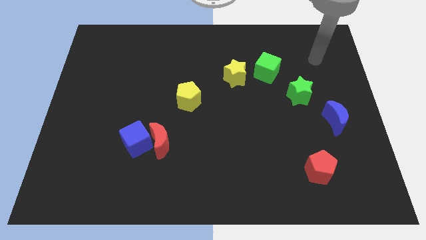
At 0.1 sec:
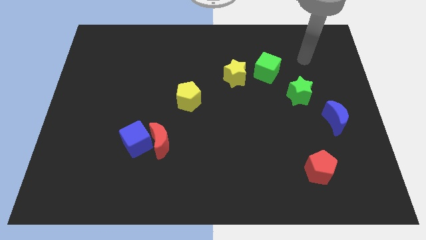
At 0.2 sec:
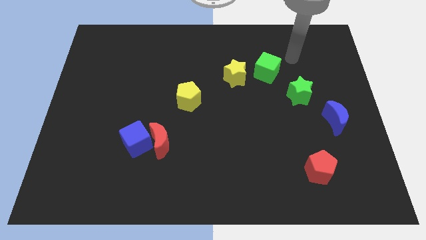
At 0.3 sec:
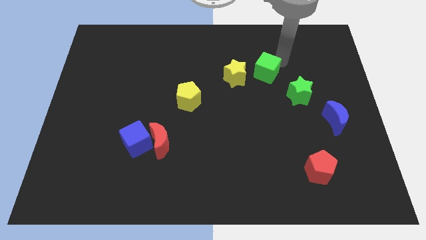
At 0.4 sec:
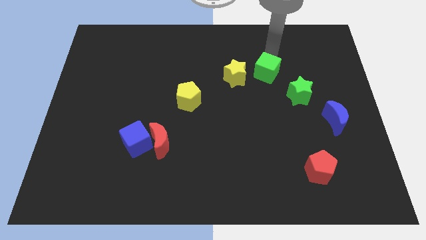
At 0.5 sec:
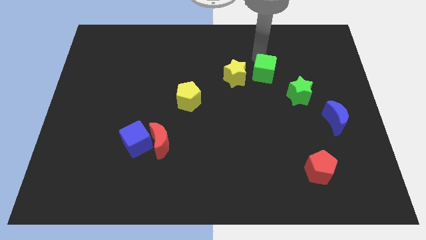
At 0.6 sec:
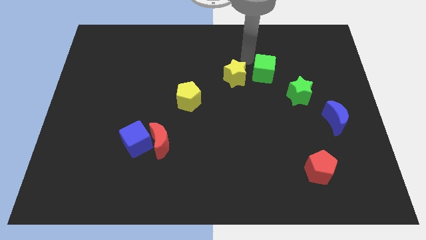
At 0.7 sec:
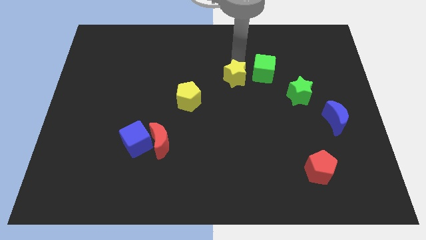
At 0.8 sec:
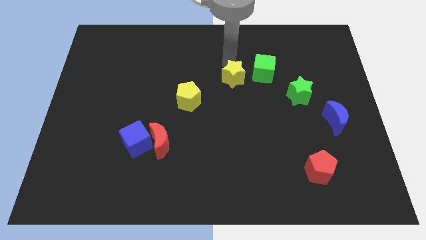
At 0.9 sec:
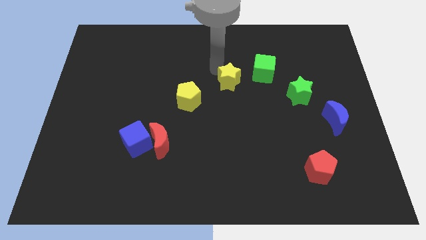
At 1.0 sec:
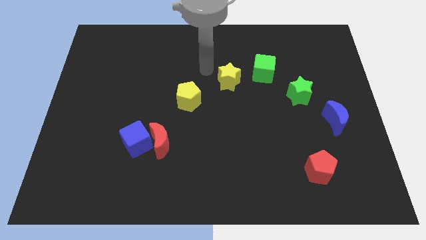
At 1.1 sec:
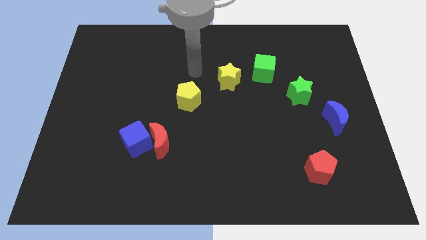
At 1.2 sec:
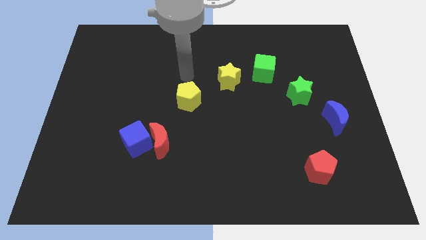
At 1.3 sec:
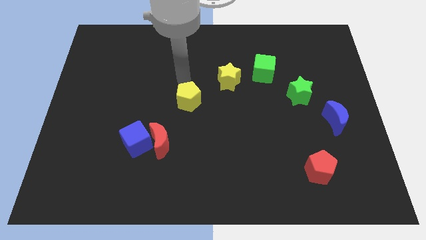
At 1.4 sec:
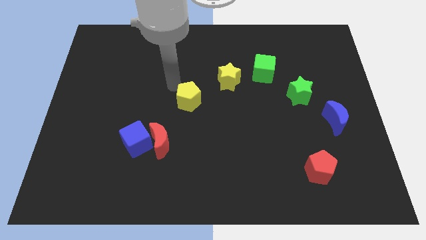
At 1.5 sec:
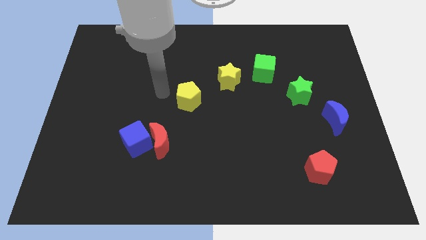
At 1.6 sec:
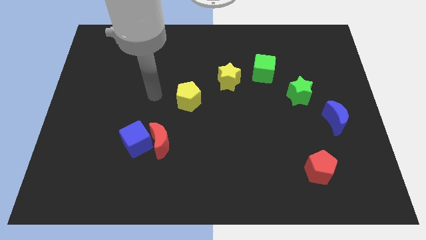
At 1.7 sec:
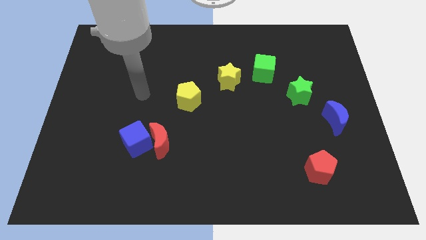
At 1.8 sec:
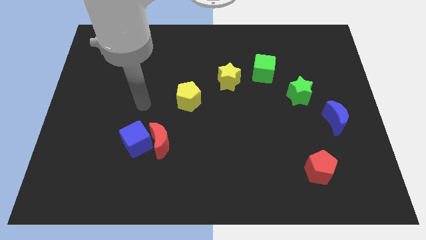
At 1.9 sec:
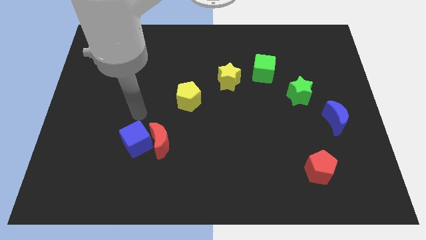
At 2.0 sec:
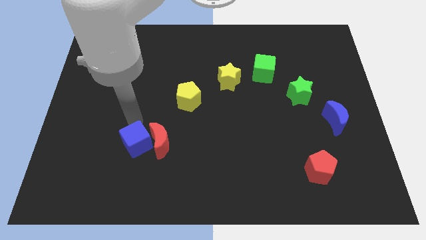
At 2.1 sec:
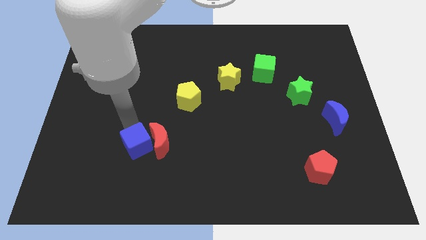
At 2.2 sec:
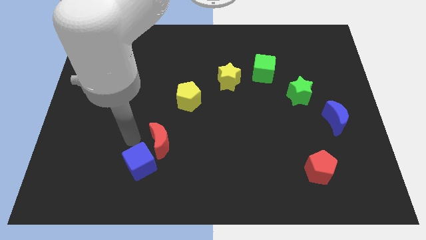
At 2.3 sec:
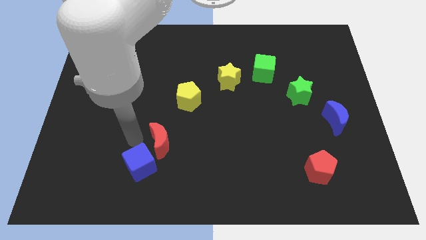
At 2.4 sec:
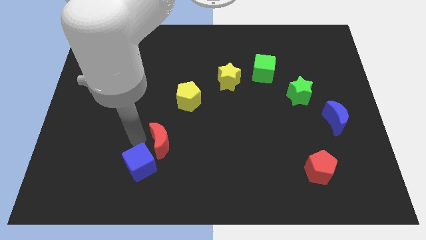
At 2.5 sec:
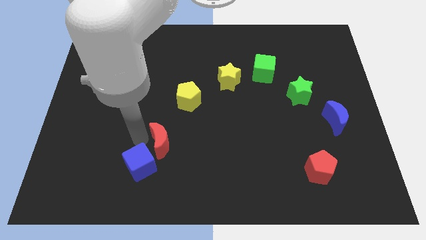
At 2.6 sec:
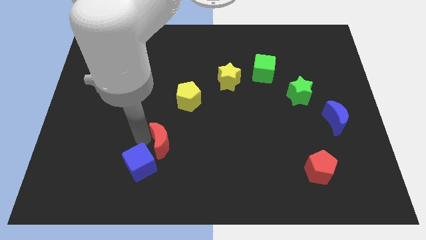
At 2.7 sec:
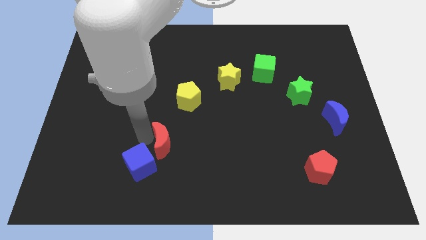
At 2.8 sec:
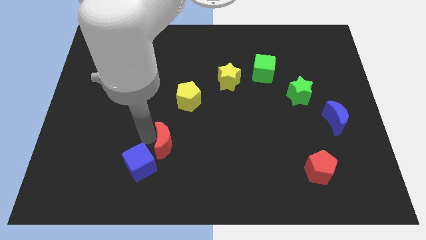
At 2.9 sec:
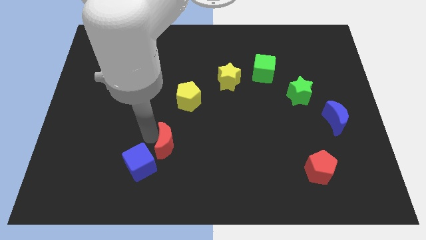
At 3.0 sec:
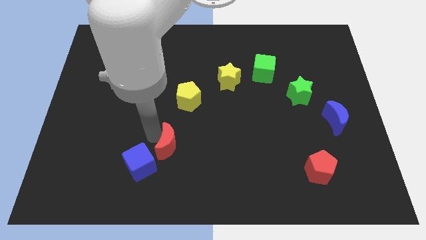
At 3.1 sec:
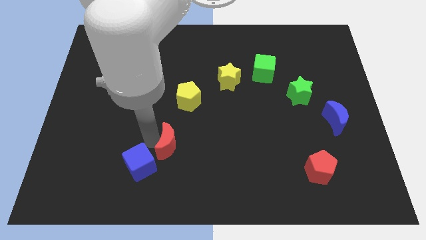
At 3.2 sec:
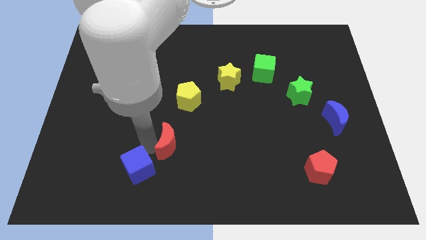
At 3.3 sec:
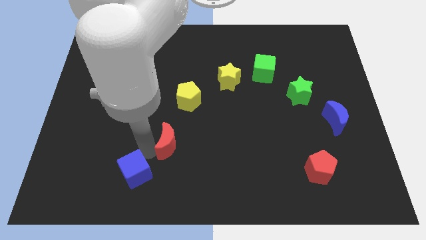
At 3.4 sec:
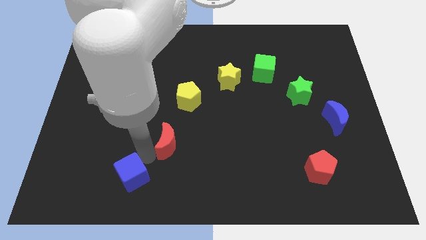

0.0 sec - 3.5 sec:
pull the red moon apart from the blue cube

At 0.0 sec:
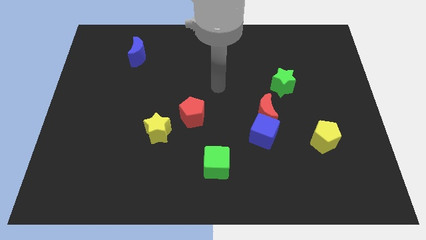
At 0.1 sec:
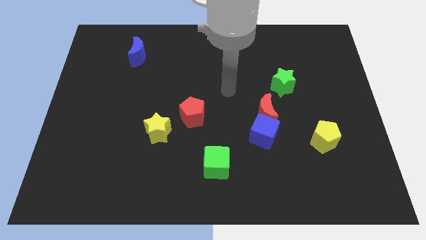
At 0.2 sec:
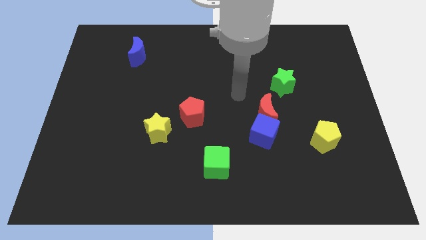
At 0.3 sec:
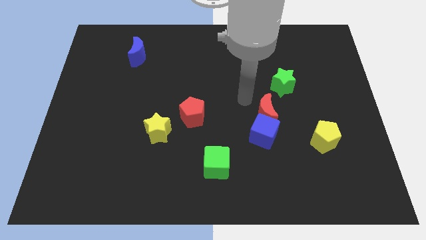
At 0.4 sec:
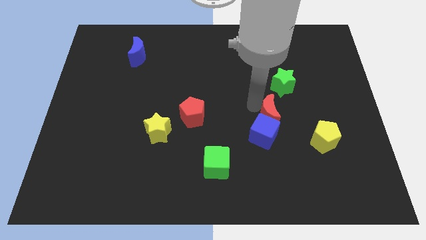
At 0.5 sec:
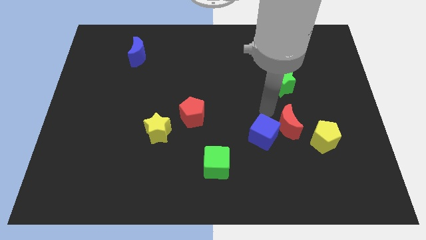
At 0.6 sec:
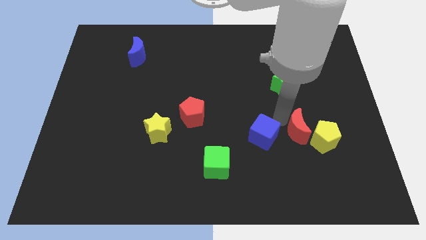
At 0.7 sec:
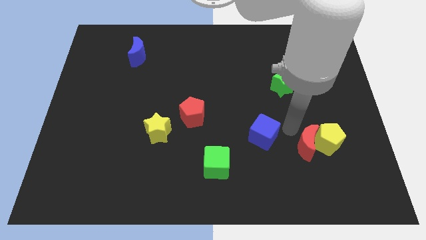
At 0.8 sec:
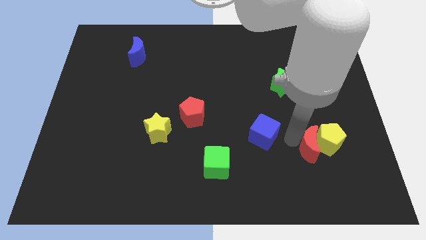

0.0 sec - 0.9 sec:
pull the blue cube apart from the red moon

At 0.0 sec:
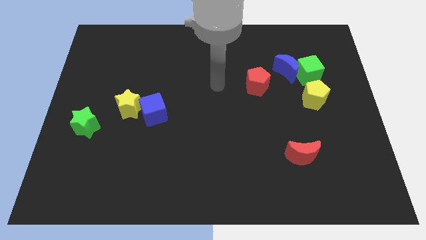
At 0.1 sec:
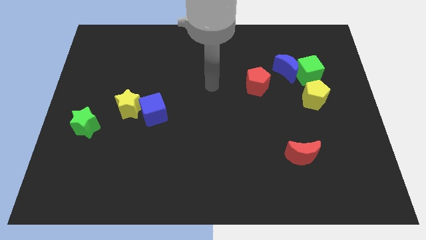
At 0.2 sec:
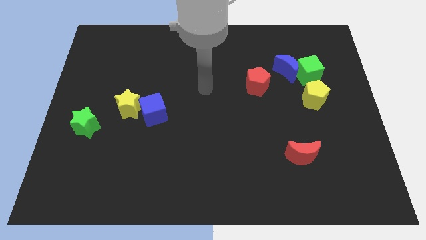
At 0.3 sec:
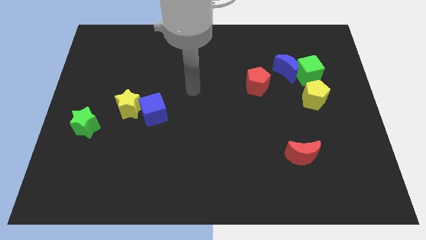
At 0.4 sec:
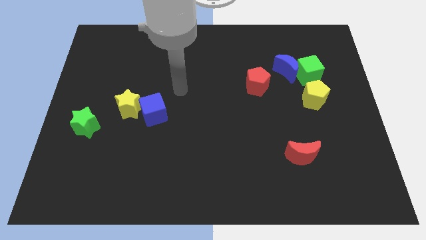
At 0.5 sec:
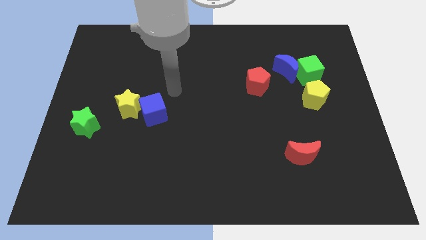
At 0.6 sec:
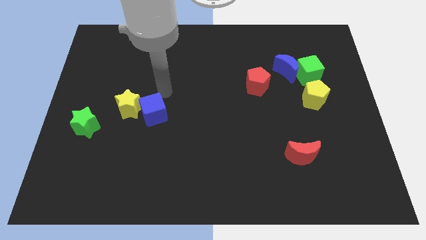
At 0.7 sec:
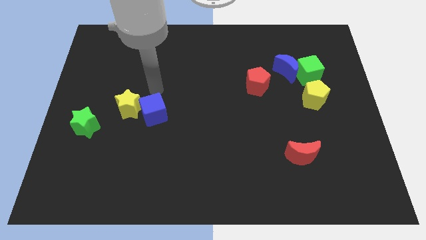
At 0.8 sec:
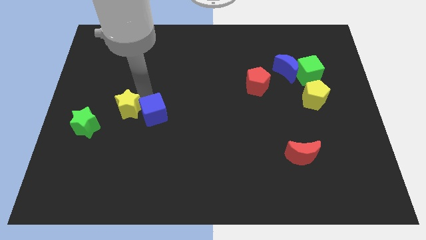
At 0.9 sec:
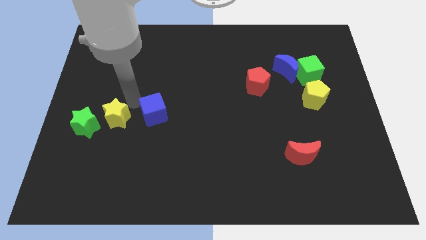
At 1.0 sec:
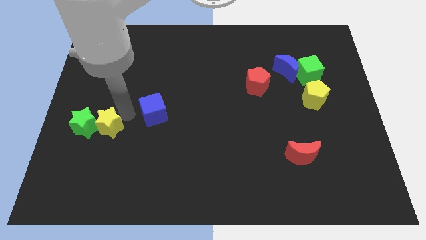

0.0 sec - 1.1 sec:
pull the blue cube apart from the yellow star

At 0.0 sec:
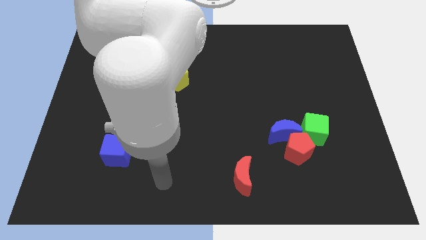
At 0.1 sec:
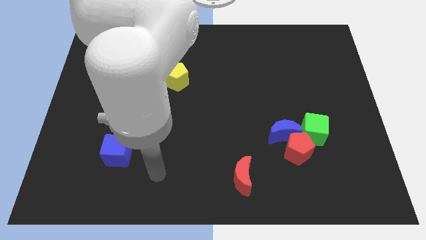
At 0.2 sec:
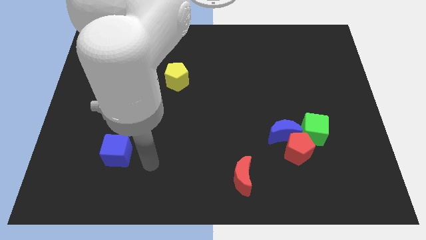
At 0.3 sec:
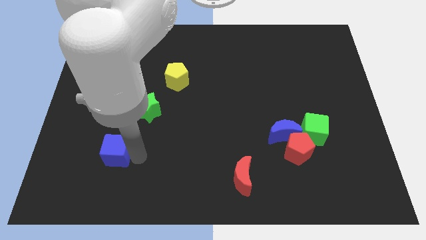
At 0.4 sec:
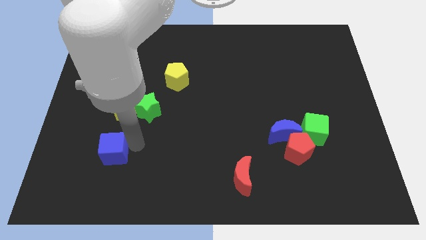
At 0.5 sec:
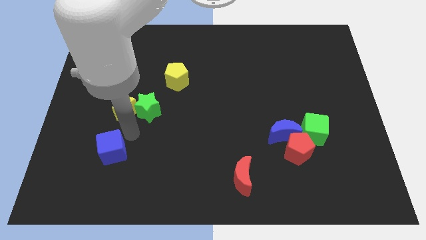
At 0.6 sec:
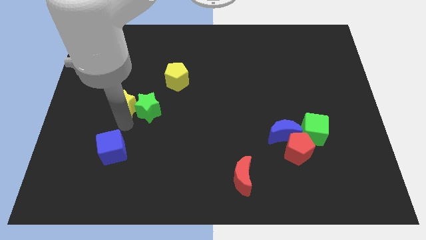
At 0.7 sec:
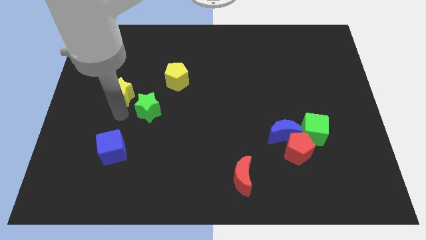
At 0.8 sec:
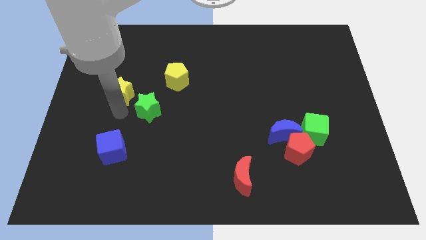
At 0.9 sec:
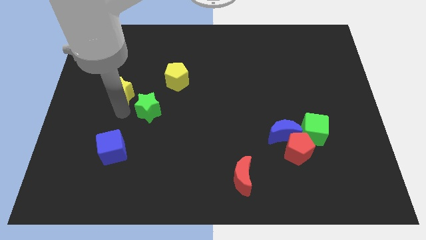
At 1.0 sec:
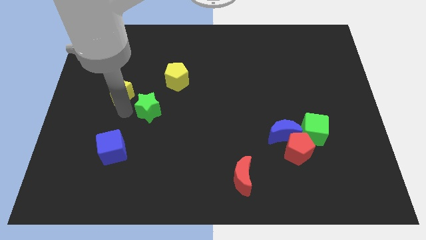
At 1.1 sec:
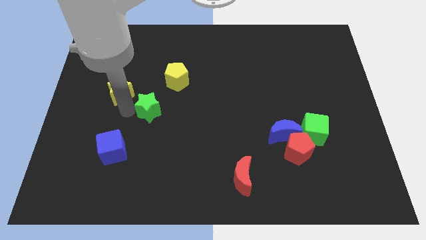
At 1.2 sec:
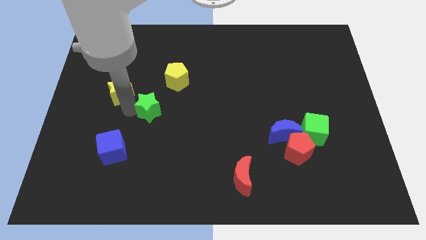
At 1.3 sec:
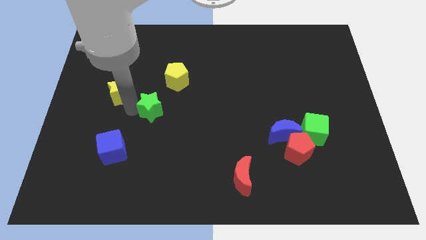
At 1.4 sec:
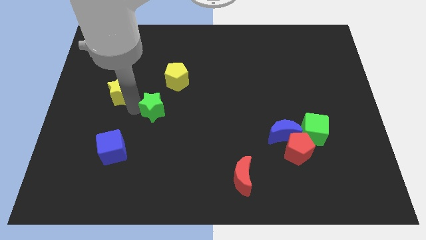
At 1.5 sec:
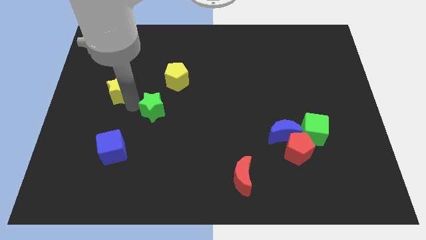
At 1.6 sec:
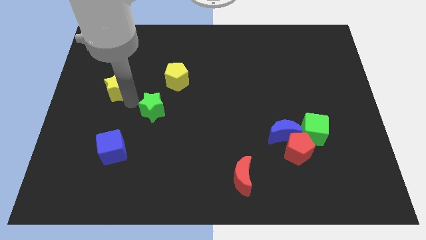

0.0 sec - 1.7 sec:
separate the green star from the yellow star

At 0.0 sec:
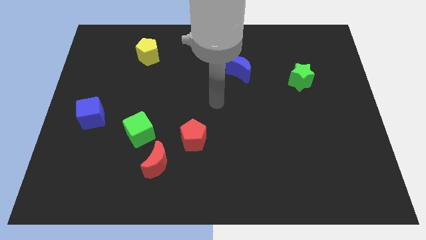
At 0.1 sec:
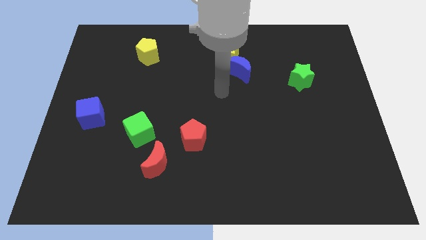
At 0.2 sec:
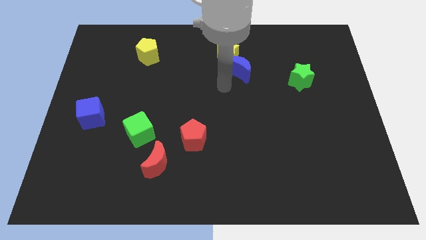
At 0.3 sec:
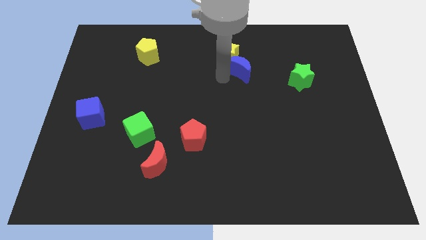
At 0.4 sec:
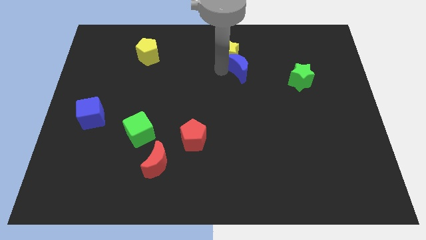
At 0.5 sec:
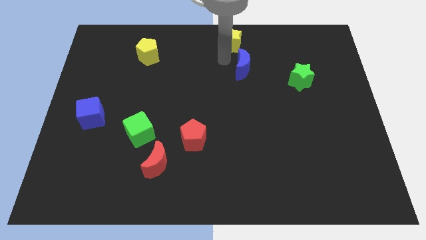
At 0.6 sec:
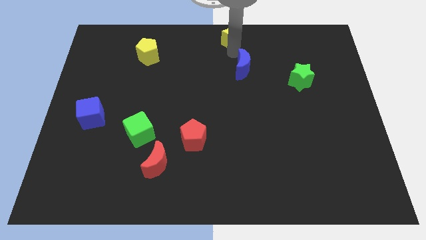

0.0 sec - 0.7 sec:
separate the blue moon from the yellow star

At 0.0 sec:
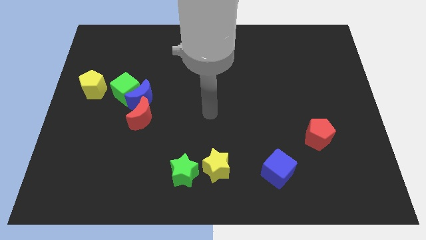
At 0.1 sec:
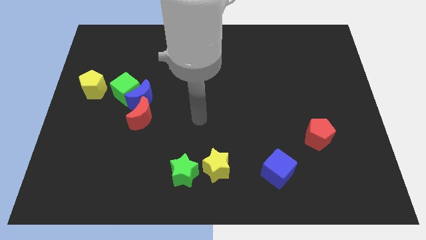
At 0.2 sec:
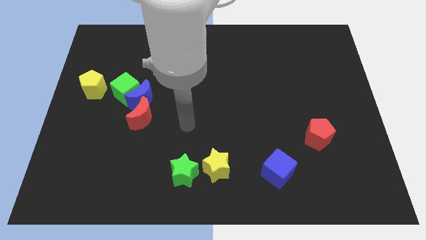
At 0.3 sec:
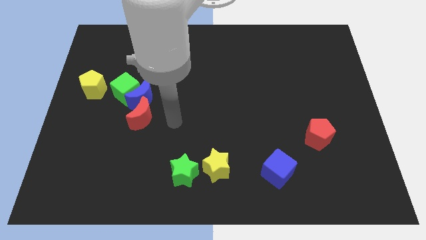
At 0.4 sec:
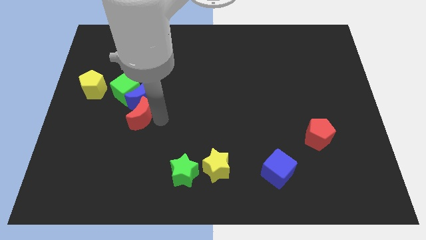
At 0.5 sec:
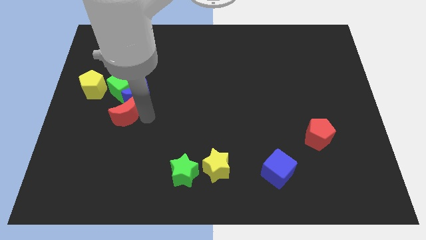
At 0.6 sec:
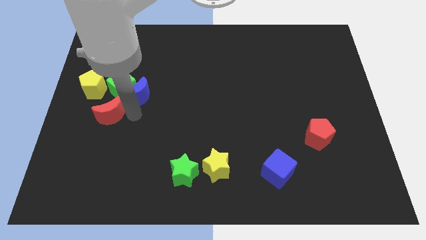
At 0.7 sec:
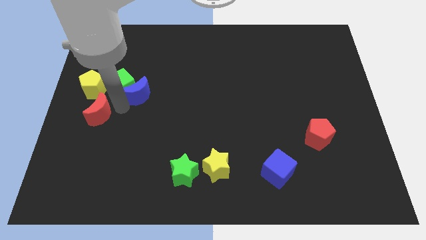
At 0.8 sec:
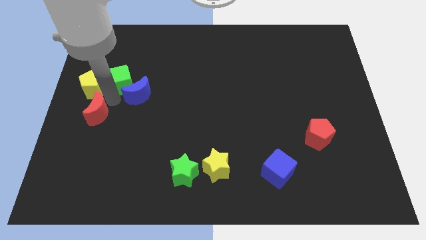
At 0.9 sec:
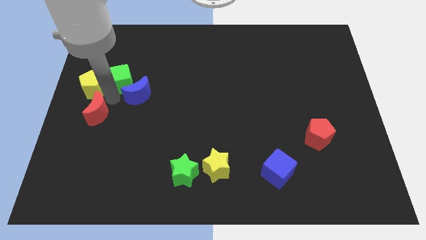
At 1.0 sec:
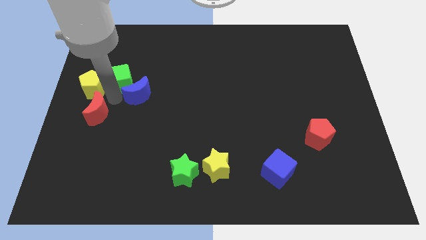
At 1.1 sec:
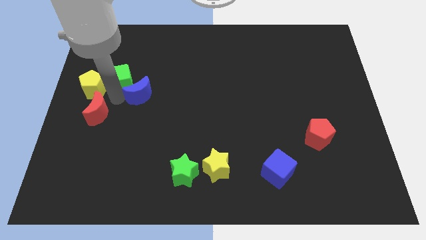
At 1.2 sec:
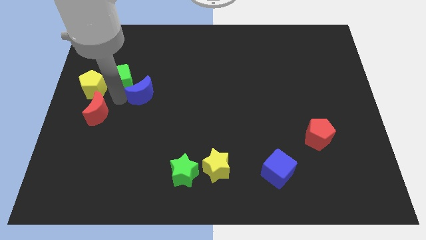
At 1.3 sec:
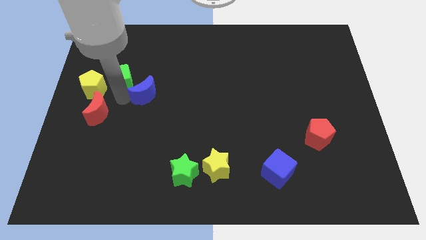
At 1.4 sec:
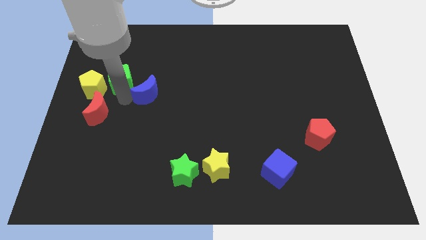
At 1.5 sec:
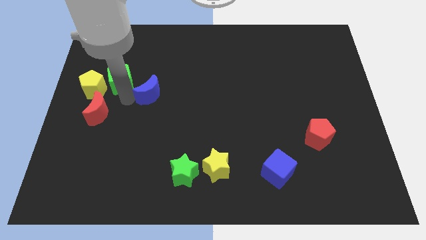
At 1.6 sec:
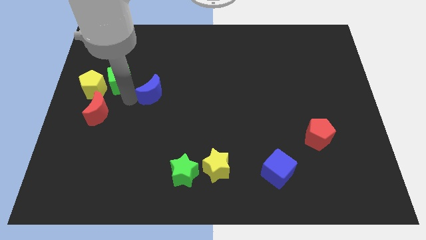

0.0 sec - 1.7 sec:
move the blue moon away from the green cube and red moon
